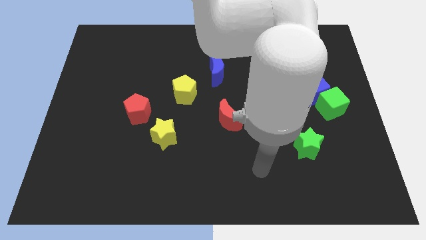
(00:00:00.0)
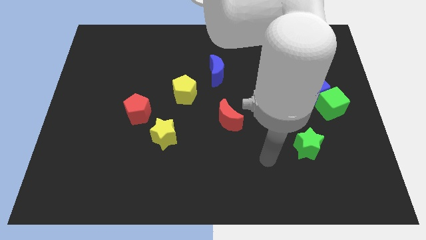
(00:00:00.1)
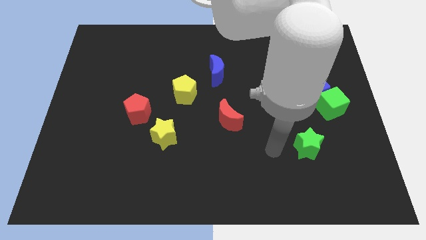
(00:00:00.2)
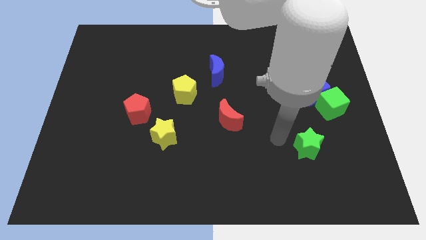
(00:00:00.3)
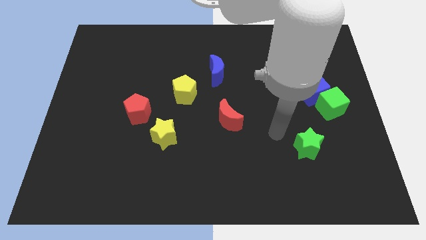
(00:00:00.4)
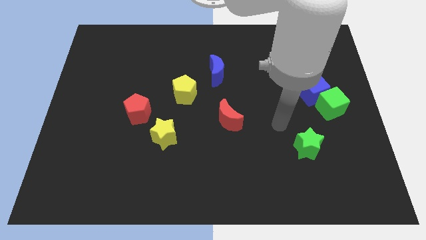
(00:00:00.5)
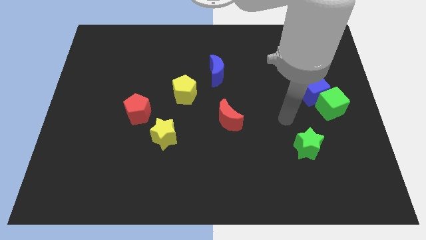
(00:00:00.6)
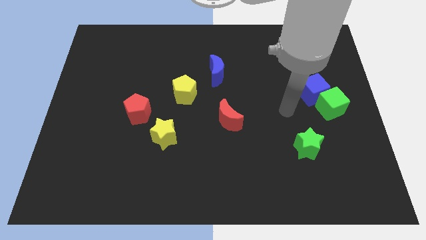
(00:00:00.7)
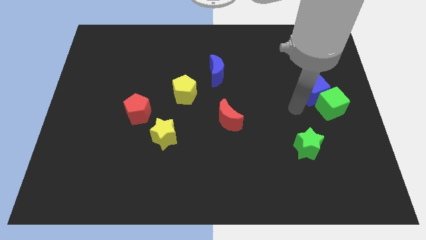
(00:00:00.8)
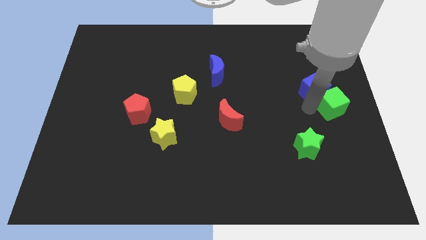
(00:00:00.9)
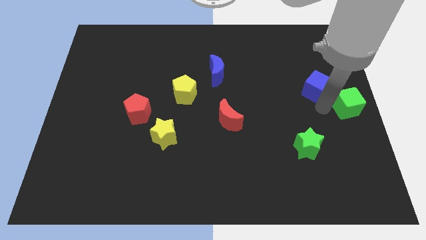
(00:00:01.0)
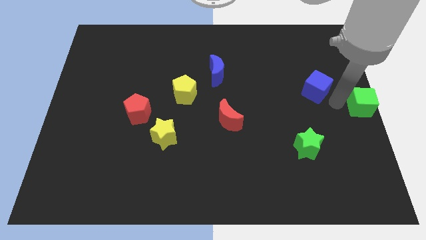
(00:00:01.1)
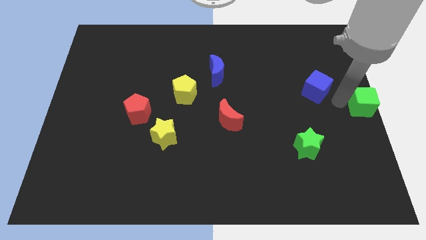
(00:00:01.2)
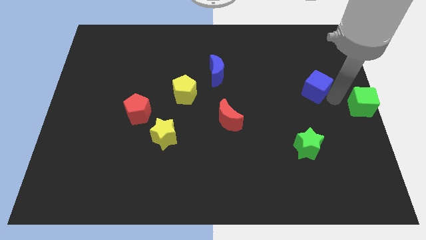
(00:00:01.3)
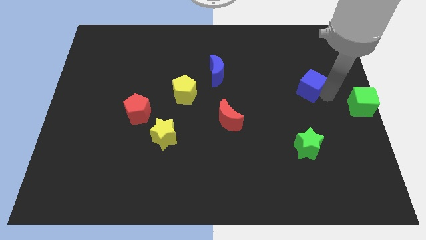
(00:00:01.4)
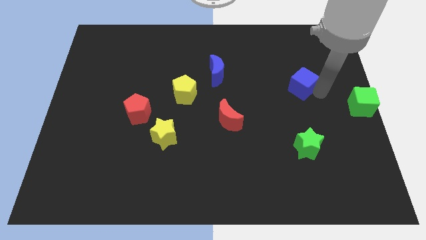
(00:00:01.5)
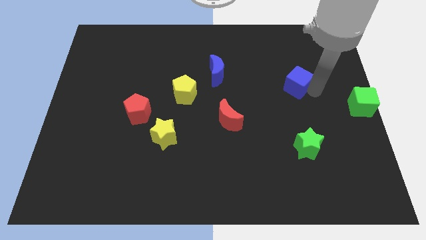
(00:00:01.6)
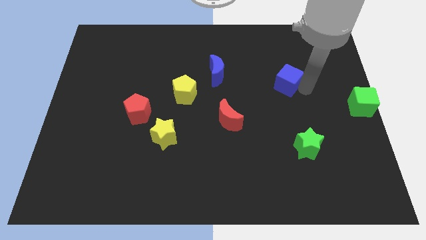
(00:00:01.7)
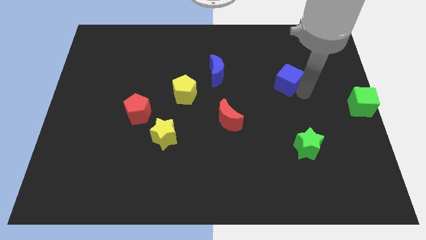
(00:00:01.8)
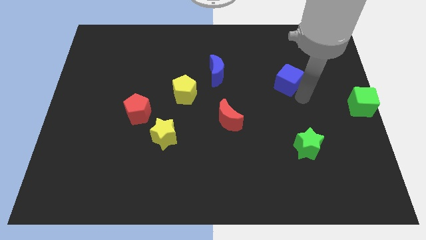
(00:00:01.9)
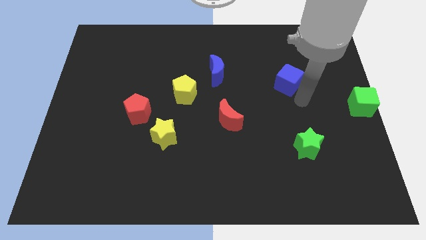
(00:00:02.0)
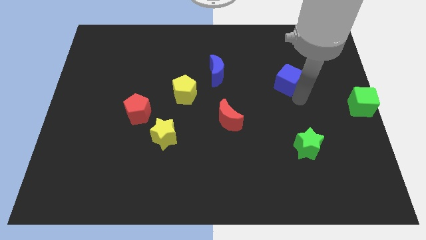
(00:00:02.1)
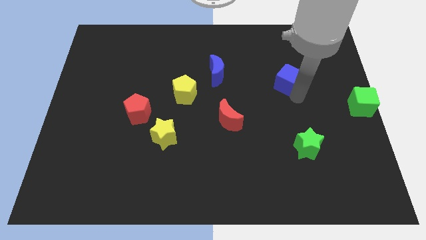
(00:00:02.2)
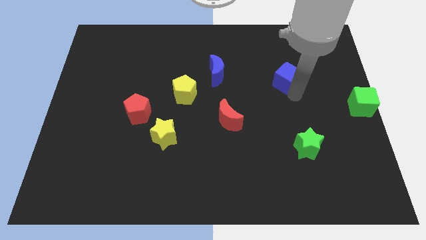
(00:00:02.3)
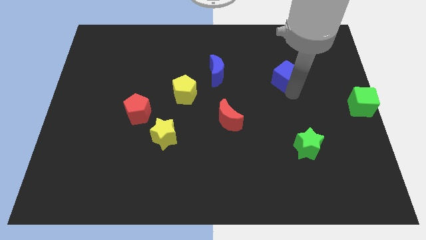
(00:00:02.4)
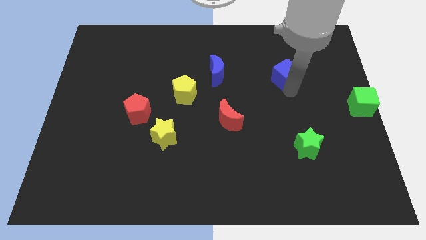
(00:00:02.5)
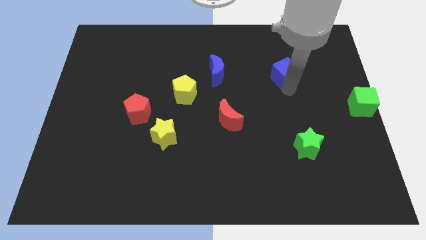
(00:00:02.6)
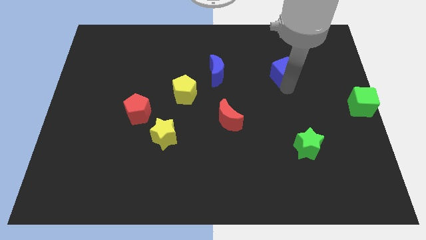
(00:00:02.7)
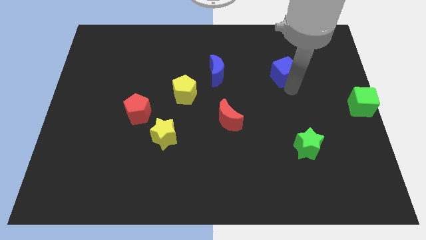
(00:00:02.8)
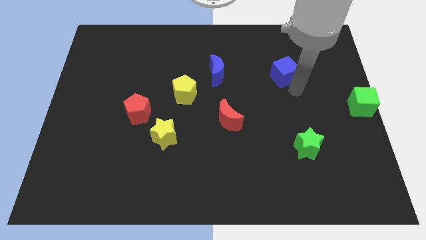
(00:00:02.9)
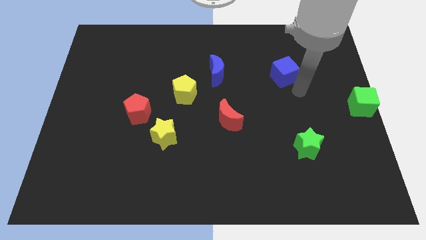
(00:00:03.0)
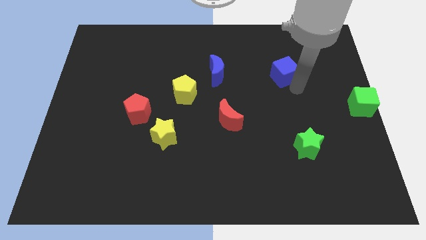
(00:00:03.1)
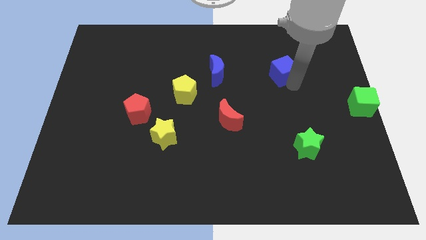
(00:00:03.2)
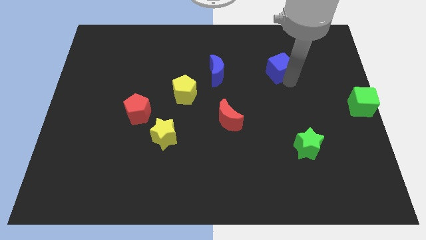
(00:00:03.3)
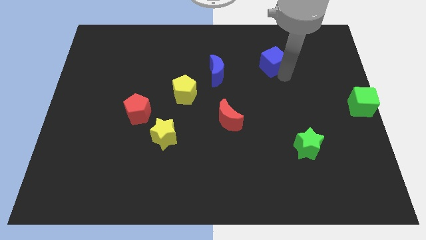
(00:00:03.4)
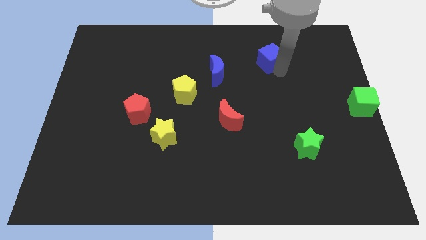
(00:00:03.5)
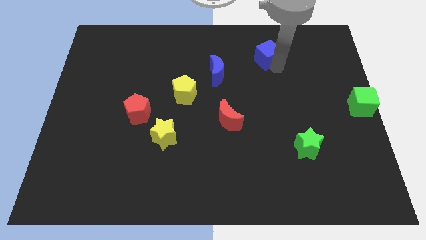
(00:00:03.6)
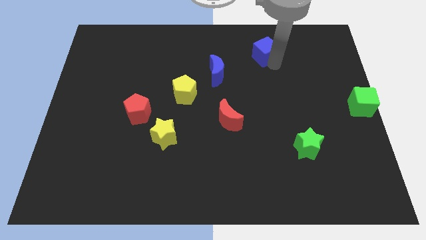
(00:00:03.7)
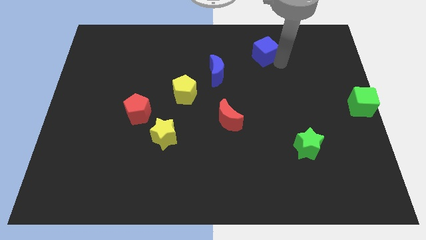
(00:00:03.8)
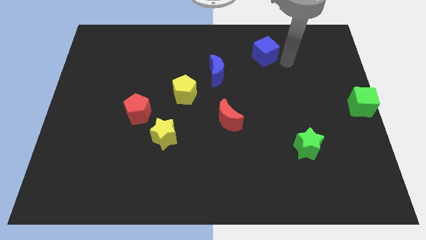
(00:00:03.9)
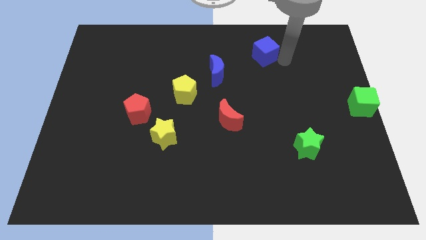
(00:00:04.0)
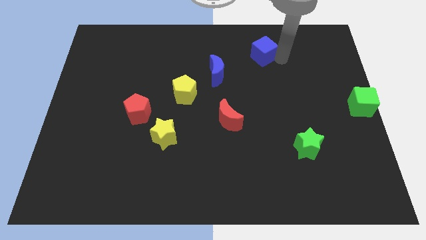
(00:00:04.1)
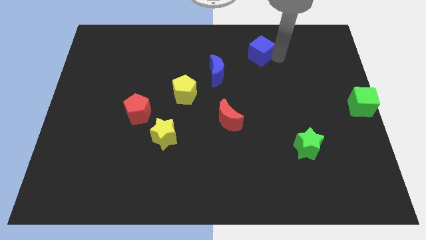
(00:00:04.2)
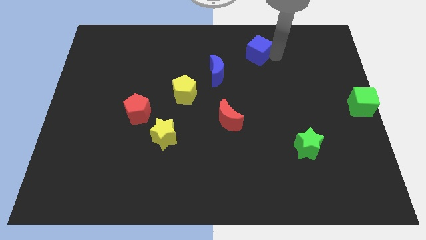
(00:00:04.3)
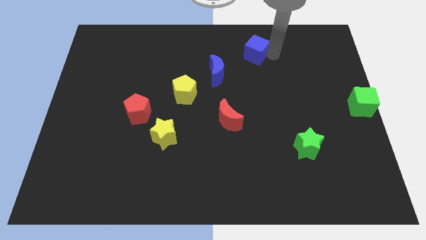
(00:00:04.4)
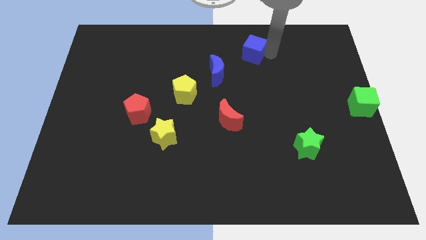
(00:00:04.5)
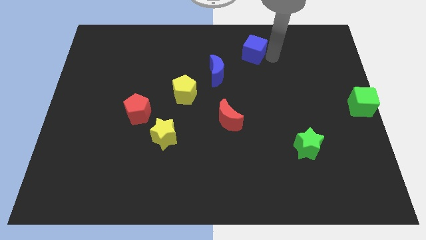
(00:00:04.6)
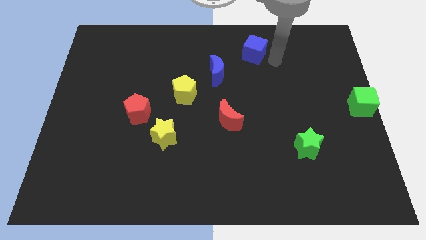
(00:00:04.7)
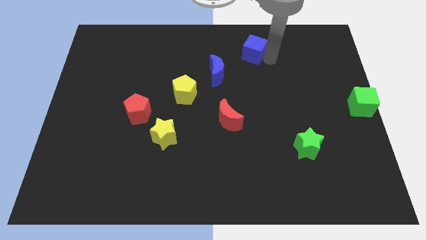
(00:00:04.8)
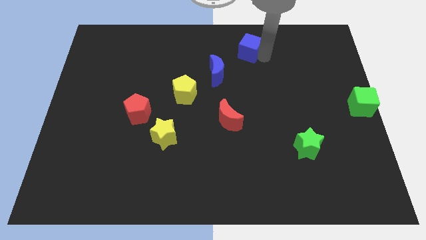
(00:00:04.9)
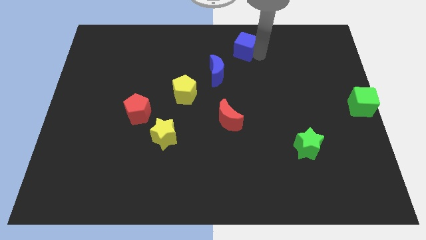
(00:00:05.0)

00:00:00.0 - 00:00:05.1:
slide the blue cube to the towards your base

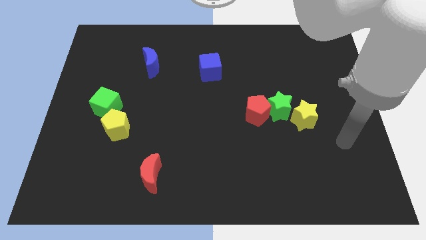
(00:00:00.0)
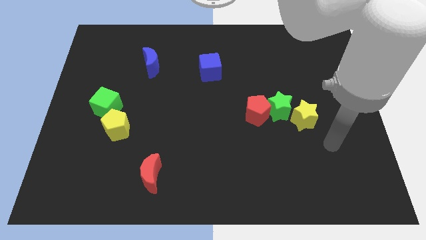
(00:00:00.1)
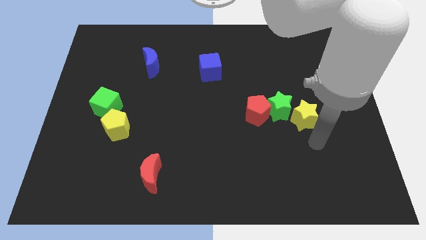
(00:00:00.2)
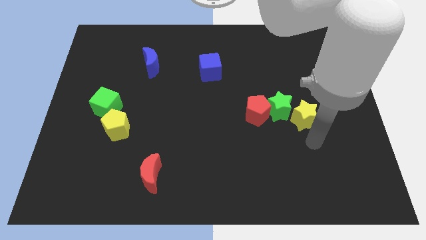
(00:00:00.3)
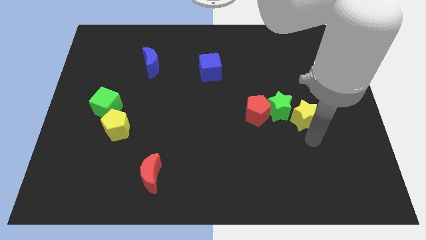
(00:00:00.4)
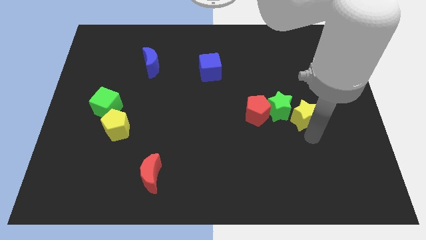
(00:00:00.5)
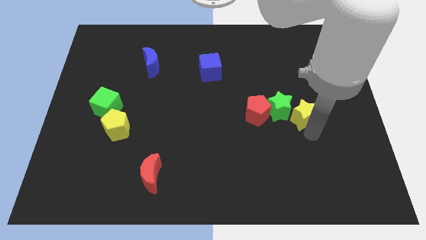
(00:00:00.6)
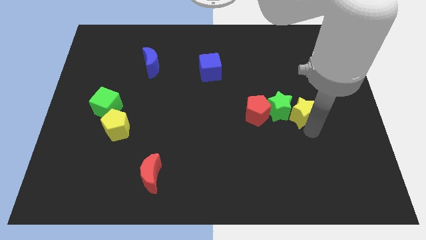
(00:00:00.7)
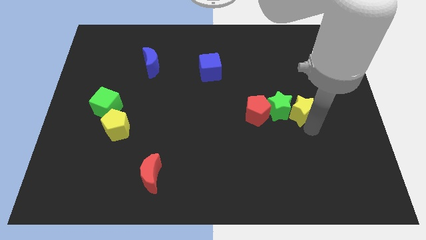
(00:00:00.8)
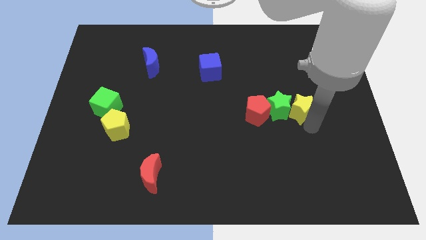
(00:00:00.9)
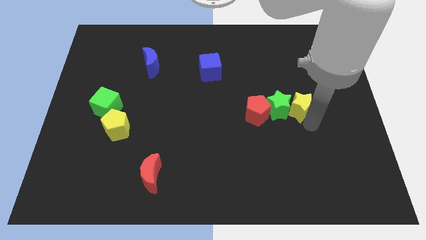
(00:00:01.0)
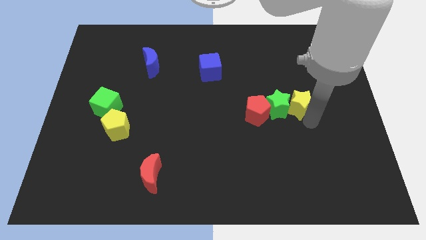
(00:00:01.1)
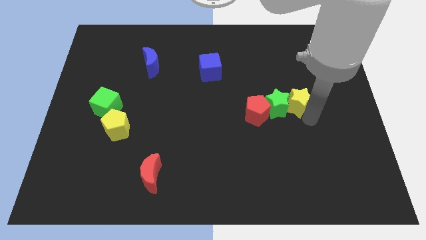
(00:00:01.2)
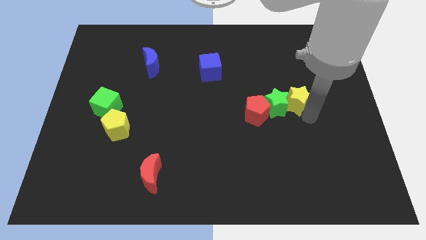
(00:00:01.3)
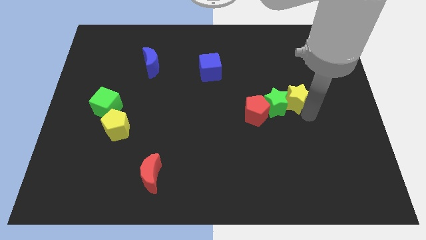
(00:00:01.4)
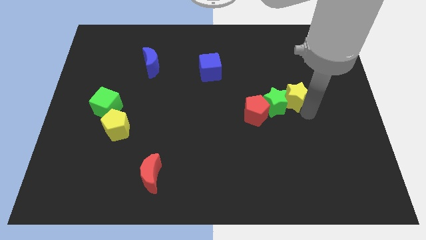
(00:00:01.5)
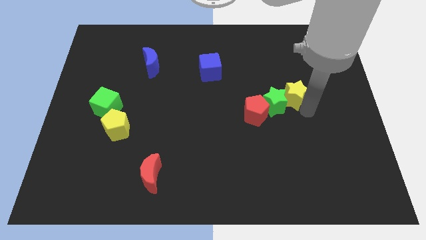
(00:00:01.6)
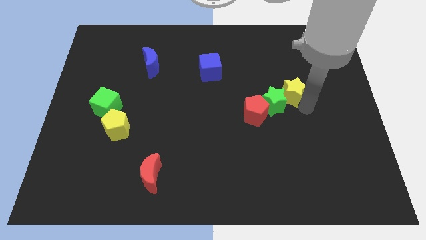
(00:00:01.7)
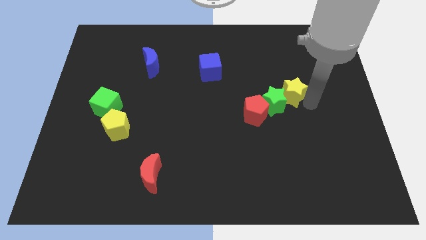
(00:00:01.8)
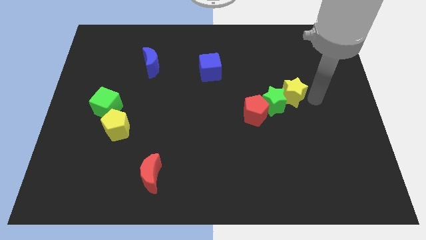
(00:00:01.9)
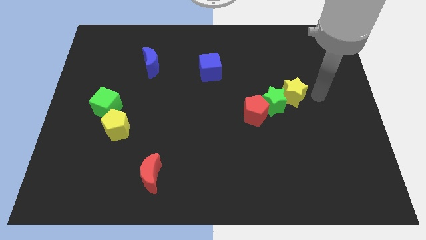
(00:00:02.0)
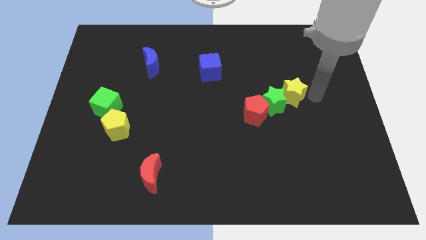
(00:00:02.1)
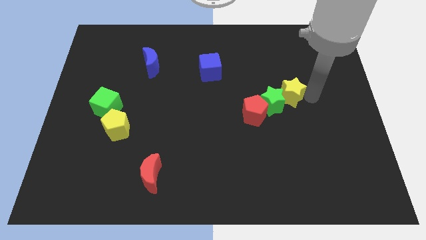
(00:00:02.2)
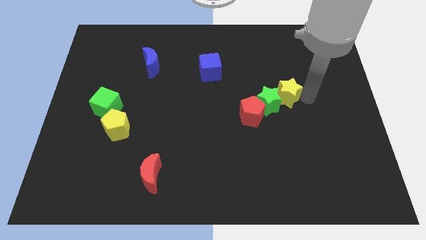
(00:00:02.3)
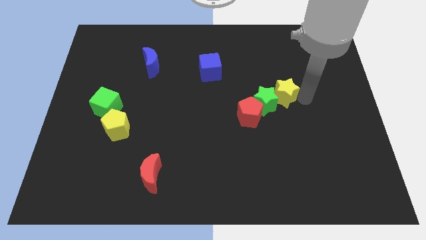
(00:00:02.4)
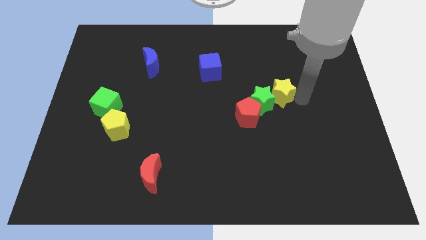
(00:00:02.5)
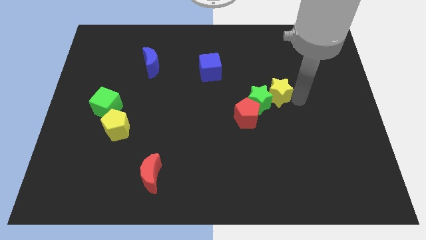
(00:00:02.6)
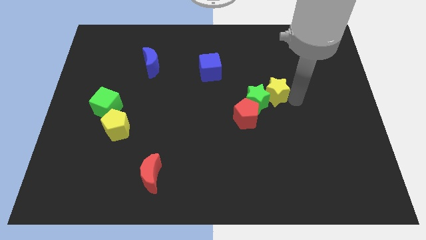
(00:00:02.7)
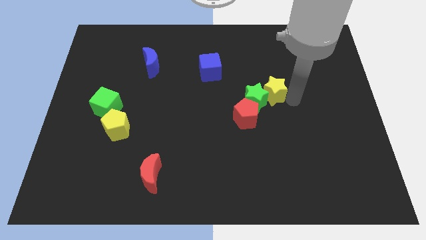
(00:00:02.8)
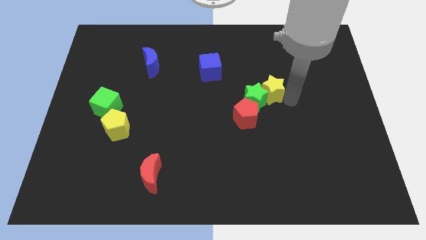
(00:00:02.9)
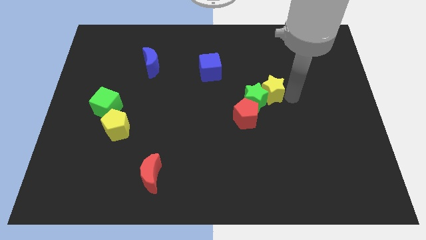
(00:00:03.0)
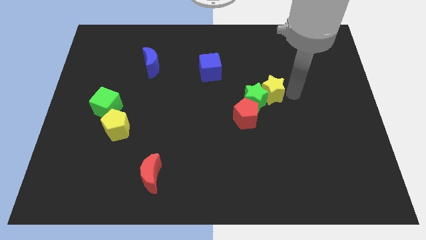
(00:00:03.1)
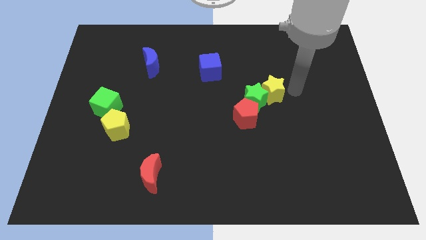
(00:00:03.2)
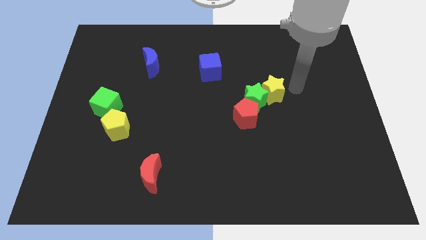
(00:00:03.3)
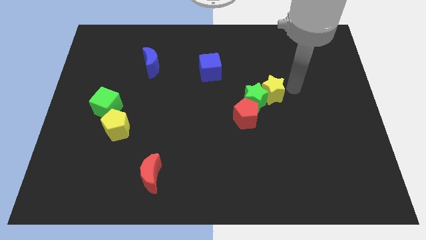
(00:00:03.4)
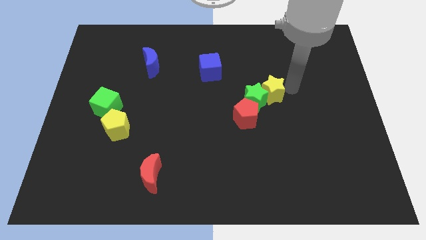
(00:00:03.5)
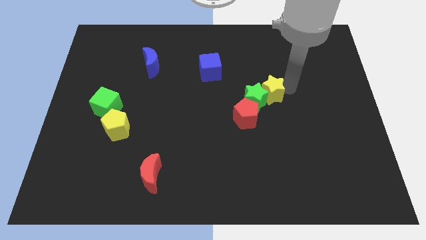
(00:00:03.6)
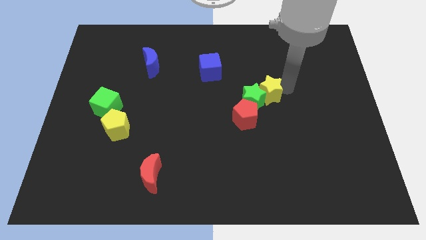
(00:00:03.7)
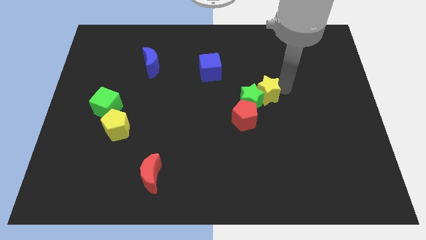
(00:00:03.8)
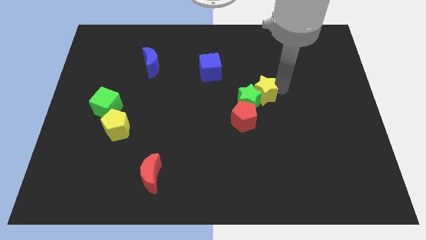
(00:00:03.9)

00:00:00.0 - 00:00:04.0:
slide the yellow star to the center
